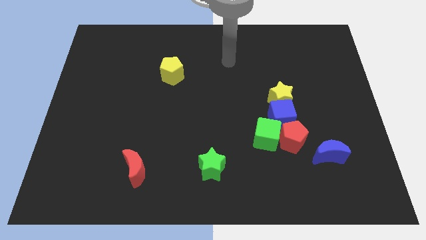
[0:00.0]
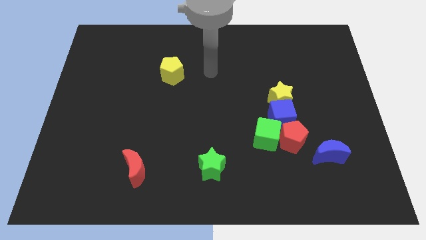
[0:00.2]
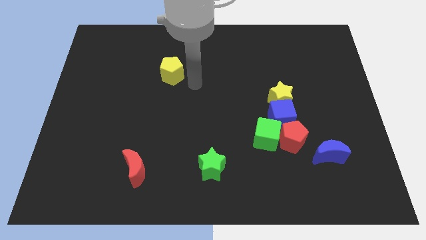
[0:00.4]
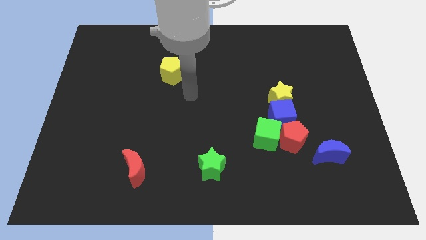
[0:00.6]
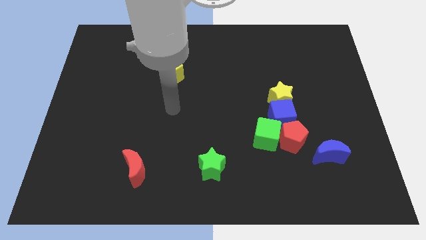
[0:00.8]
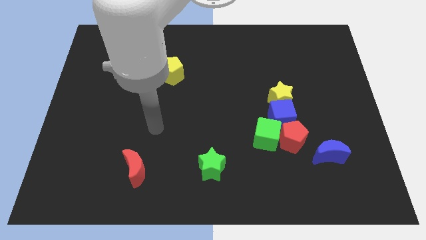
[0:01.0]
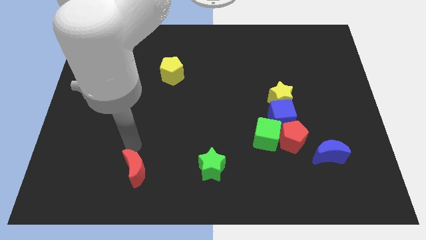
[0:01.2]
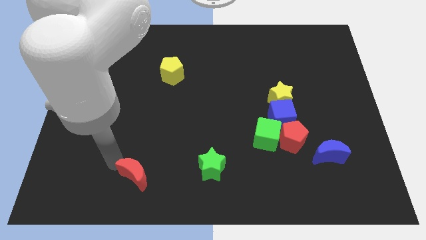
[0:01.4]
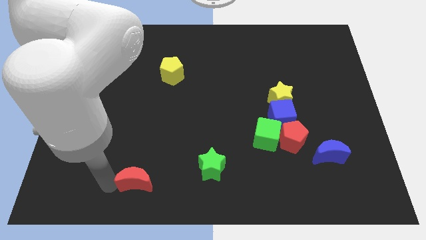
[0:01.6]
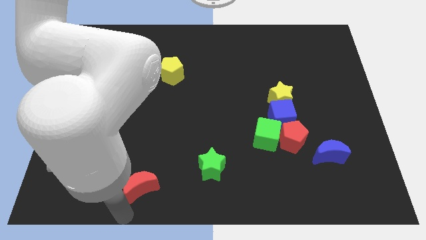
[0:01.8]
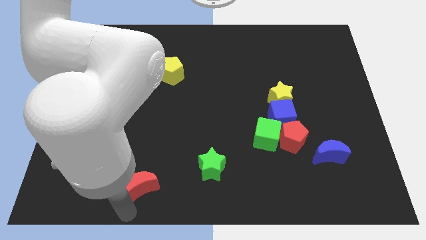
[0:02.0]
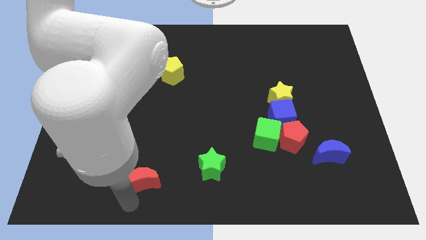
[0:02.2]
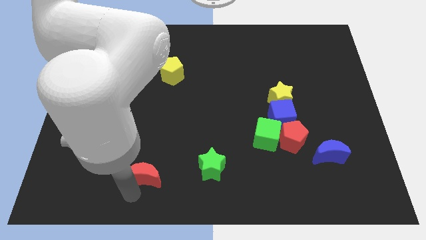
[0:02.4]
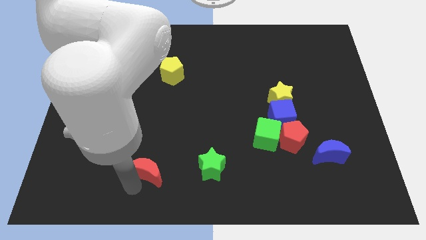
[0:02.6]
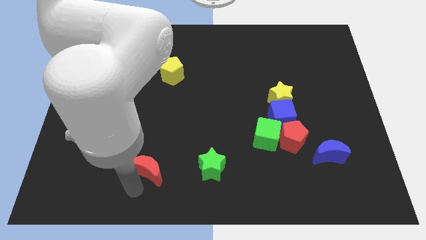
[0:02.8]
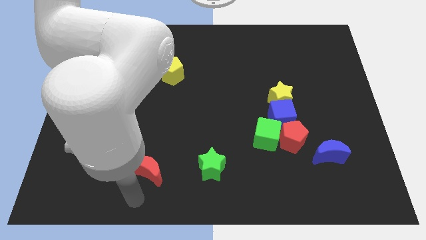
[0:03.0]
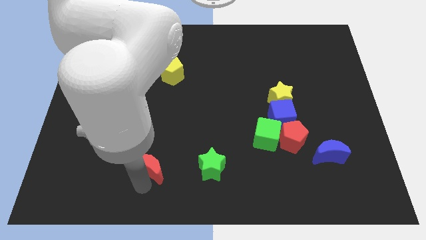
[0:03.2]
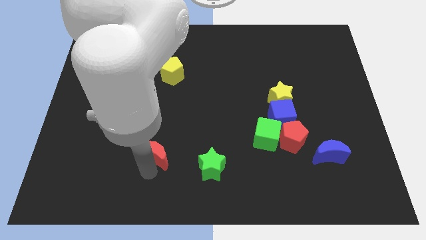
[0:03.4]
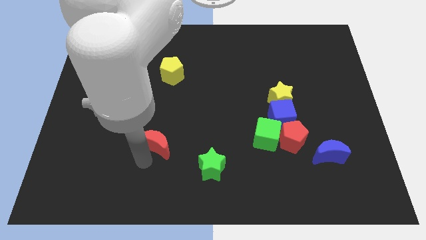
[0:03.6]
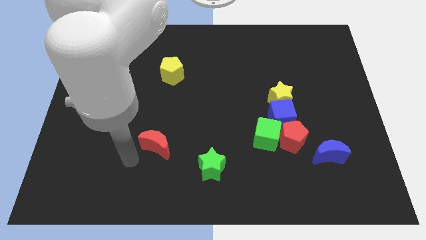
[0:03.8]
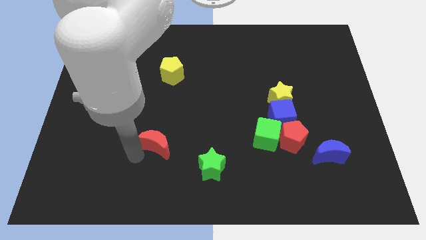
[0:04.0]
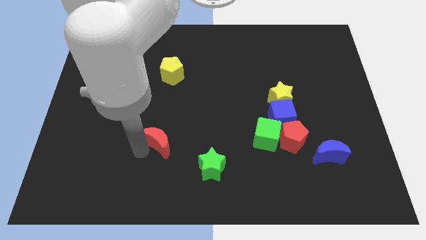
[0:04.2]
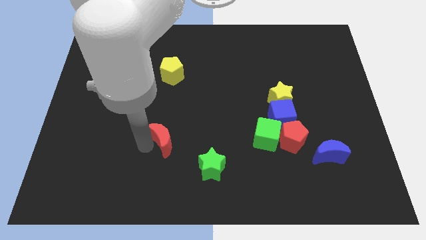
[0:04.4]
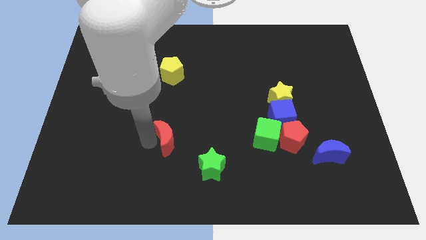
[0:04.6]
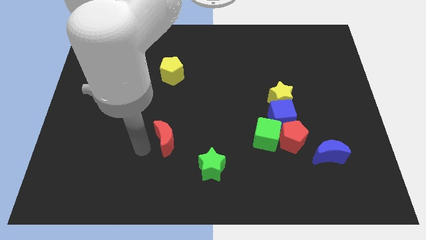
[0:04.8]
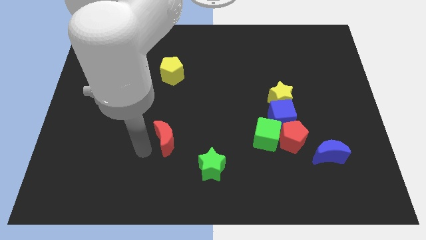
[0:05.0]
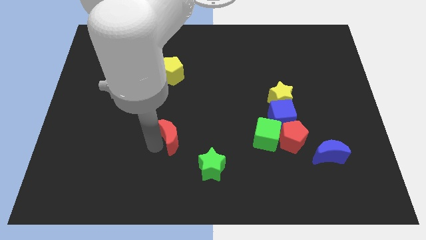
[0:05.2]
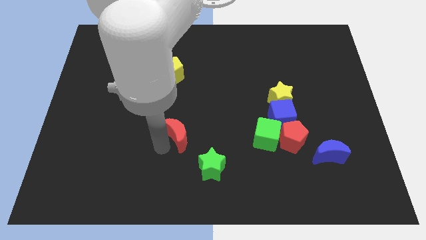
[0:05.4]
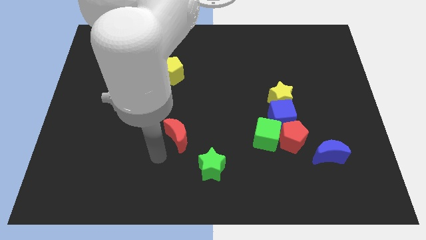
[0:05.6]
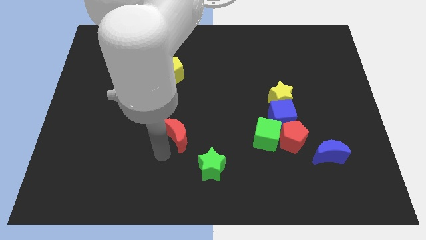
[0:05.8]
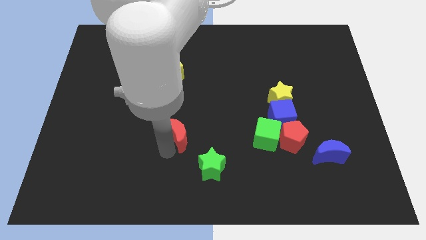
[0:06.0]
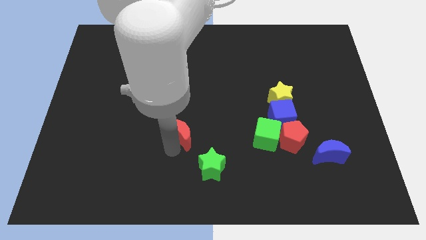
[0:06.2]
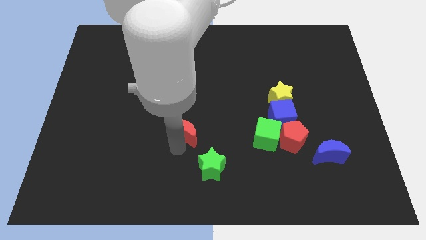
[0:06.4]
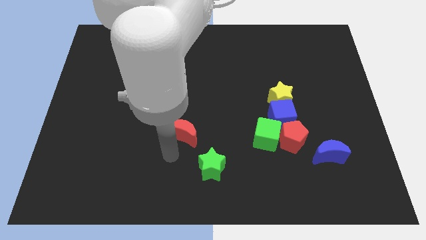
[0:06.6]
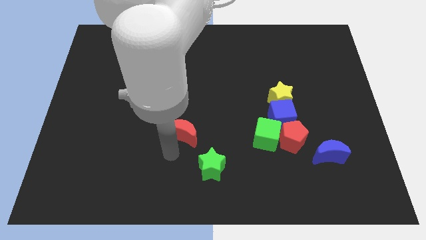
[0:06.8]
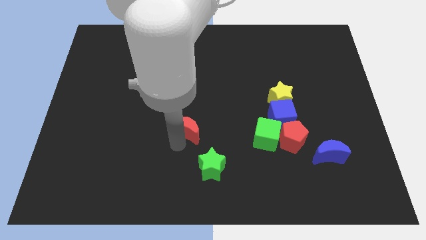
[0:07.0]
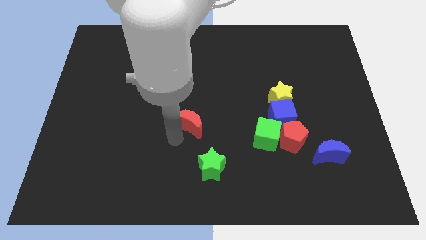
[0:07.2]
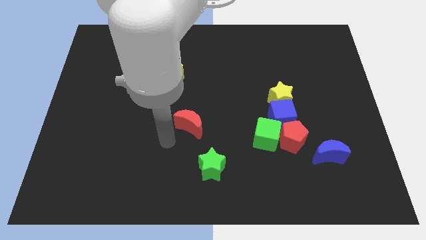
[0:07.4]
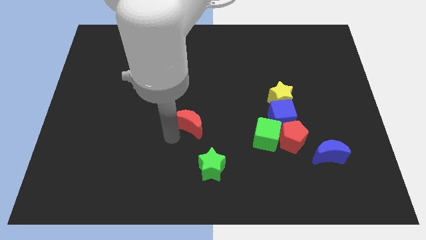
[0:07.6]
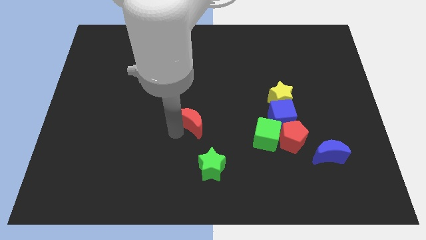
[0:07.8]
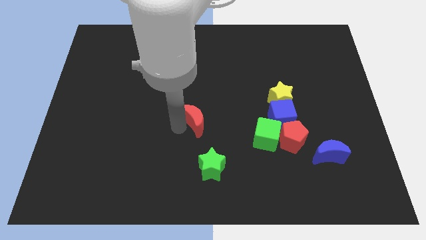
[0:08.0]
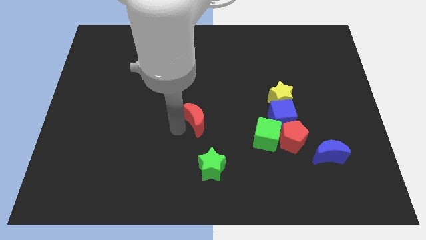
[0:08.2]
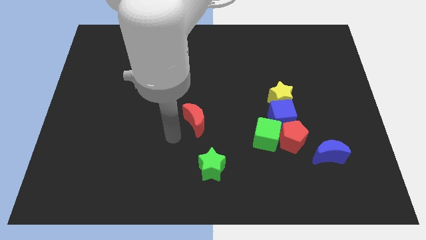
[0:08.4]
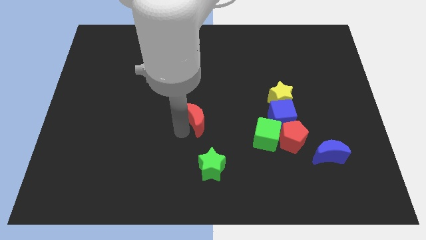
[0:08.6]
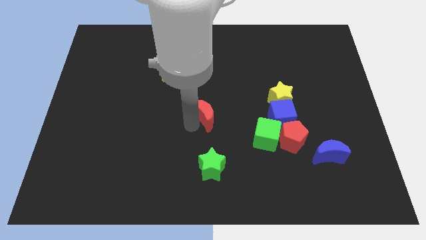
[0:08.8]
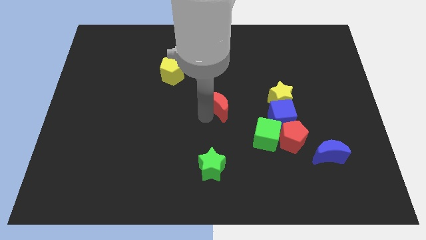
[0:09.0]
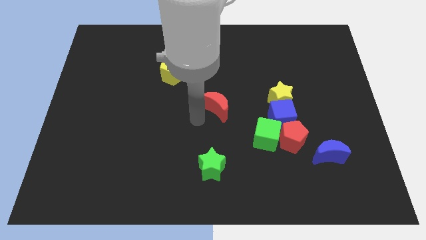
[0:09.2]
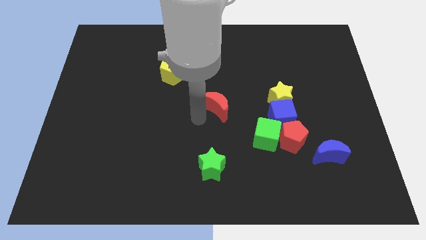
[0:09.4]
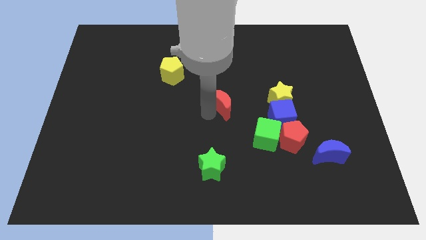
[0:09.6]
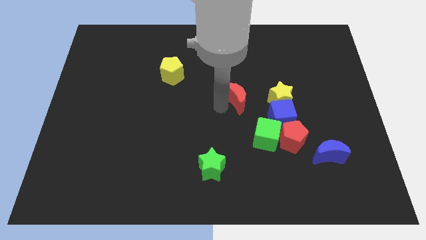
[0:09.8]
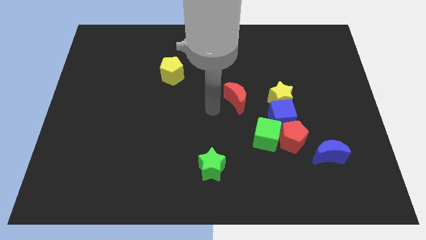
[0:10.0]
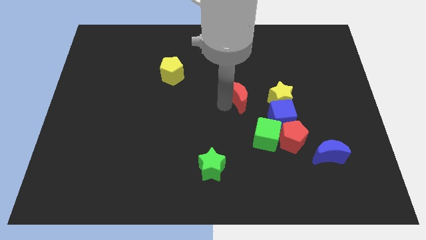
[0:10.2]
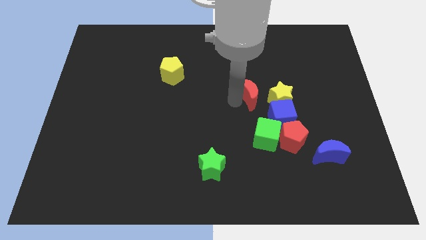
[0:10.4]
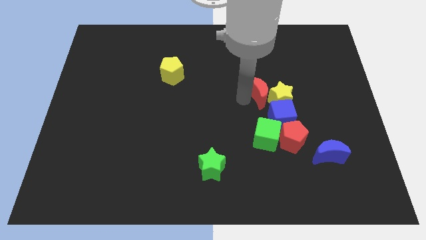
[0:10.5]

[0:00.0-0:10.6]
move the red moon to the top of the blue cube

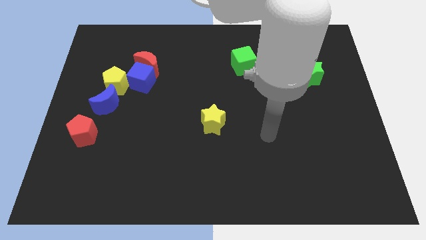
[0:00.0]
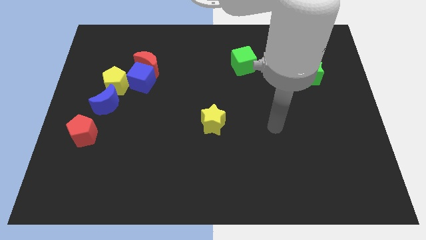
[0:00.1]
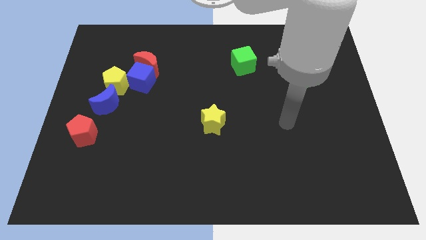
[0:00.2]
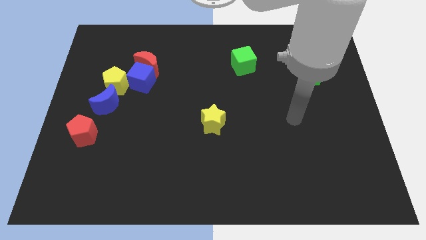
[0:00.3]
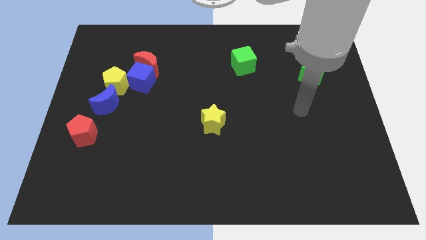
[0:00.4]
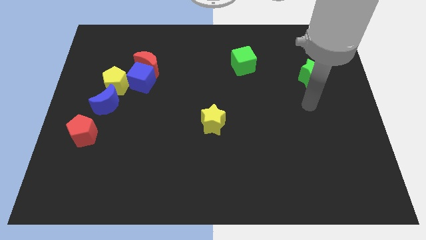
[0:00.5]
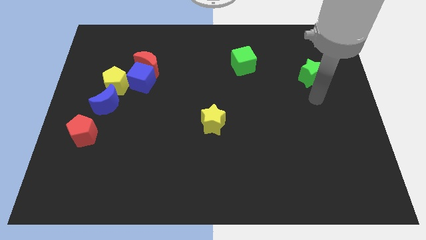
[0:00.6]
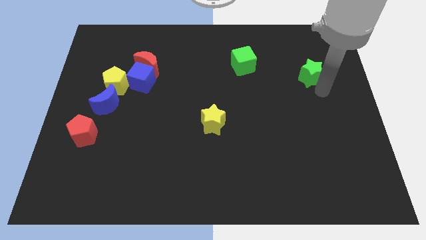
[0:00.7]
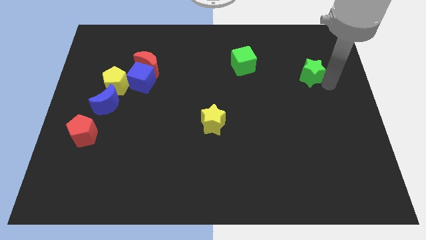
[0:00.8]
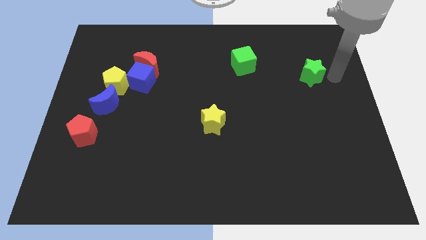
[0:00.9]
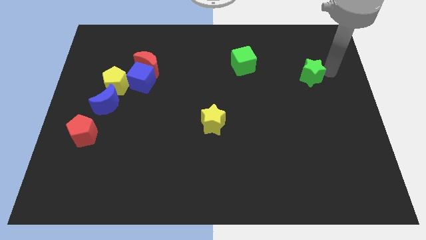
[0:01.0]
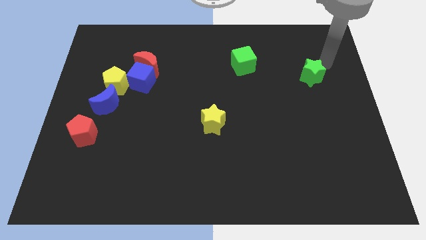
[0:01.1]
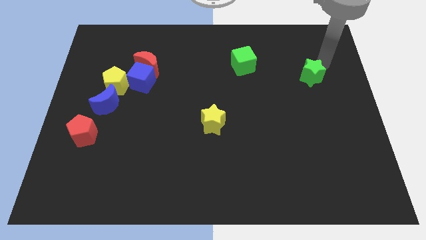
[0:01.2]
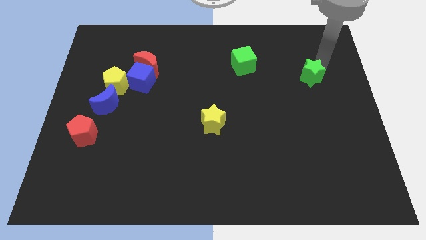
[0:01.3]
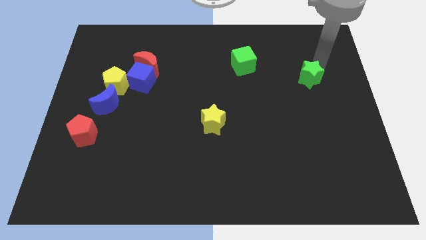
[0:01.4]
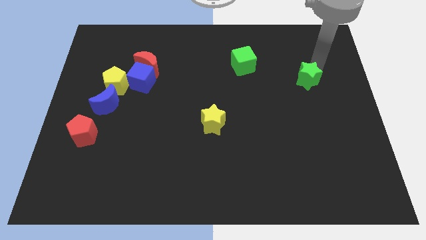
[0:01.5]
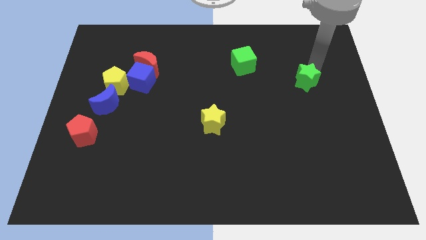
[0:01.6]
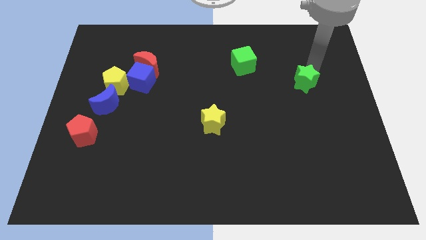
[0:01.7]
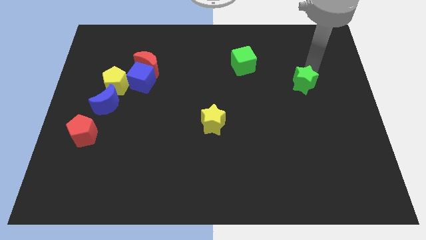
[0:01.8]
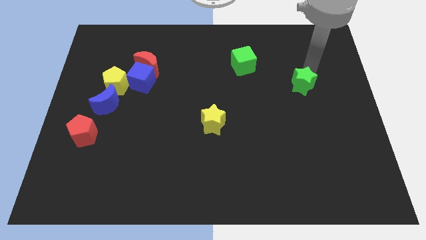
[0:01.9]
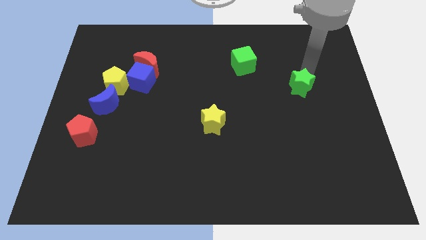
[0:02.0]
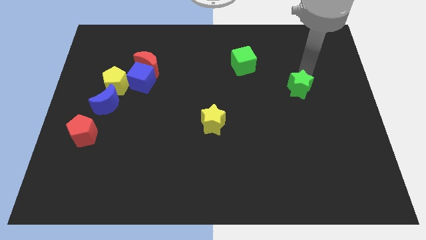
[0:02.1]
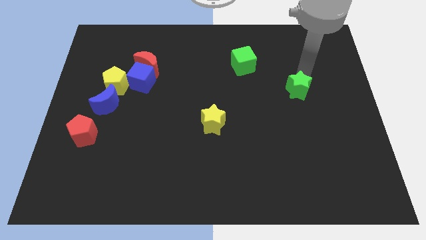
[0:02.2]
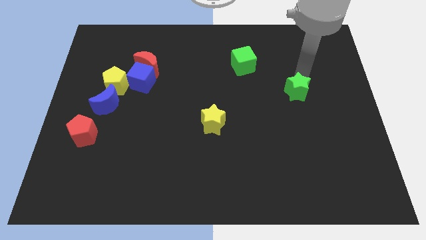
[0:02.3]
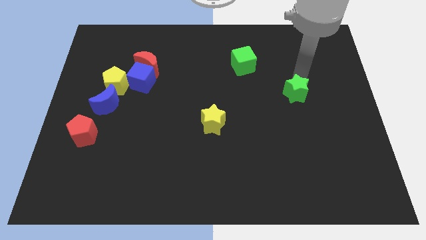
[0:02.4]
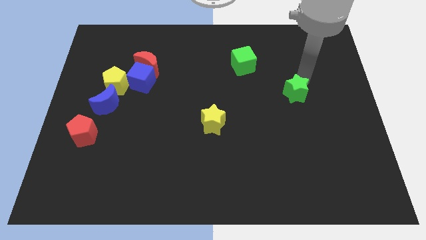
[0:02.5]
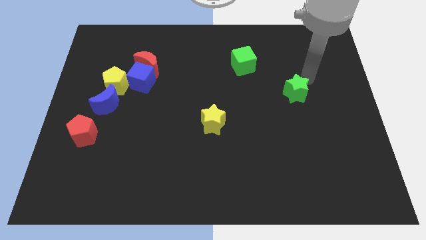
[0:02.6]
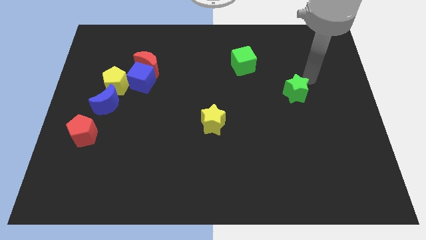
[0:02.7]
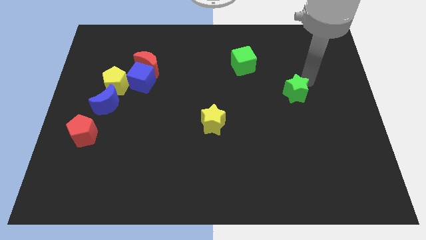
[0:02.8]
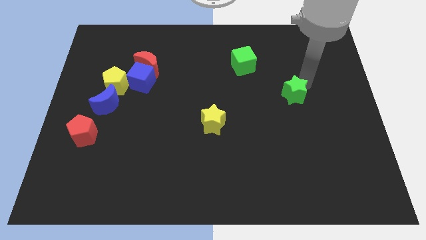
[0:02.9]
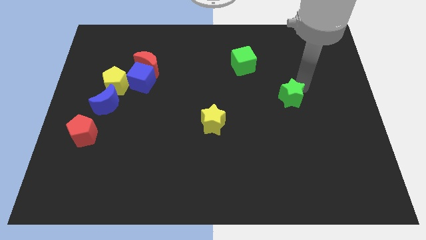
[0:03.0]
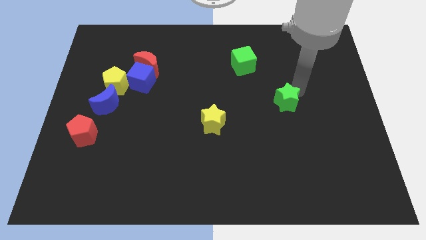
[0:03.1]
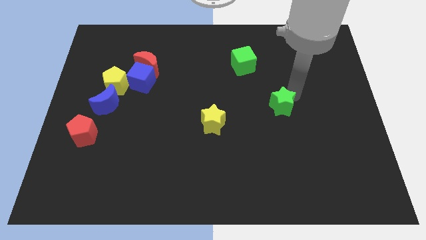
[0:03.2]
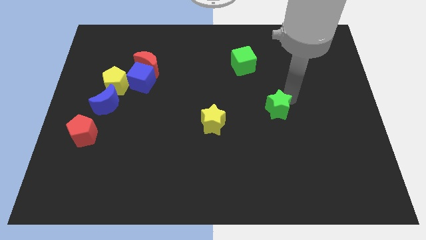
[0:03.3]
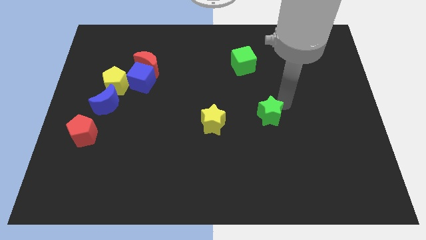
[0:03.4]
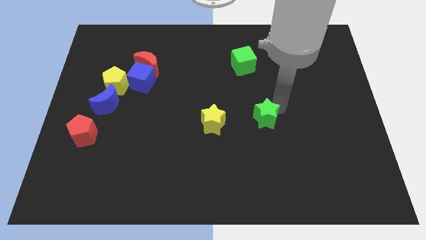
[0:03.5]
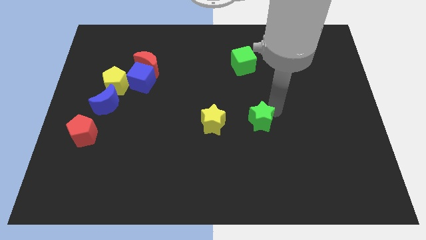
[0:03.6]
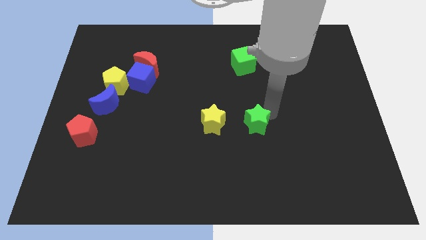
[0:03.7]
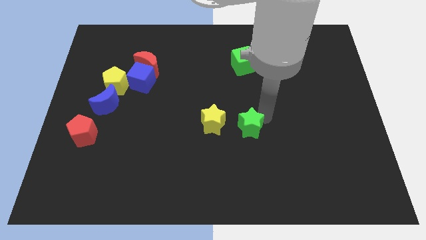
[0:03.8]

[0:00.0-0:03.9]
slide the green star to the bottom right of the yellow star
